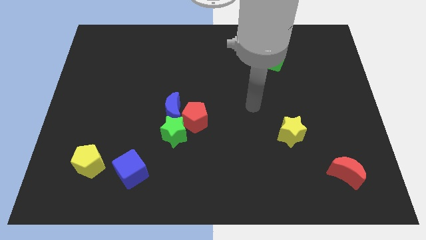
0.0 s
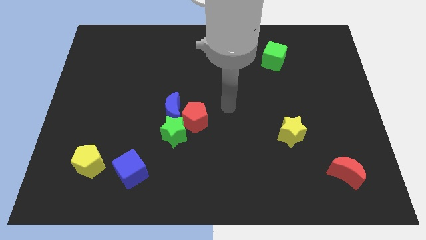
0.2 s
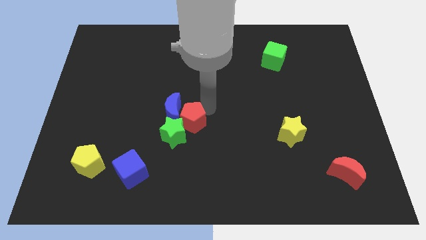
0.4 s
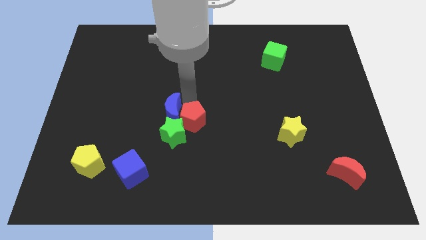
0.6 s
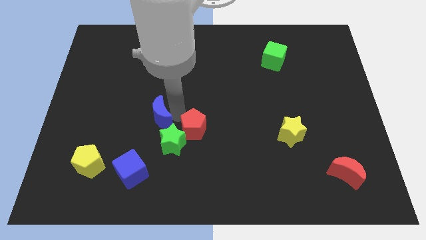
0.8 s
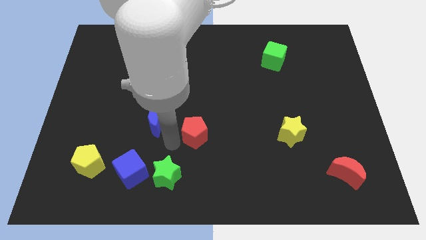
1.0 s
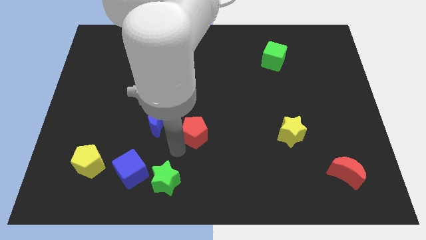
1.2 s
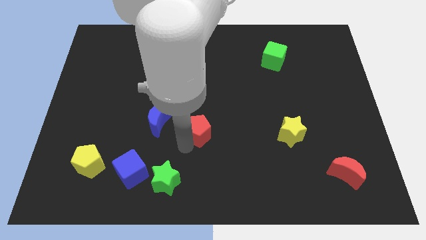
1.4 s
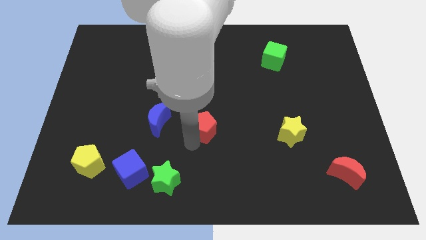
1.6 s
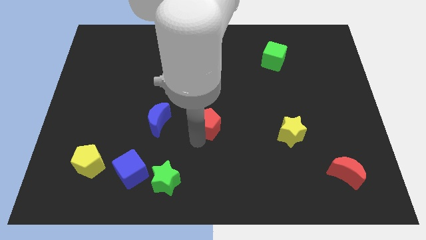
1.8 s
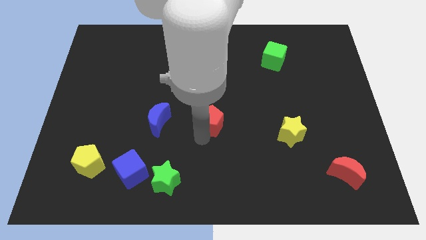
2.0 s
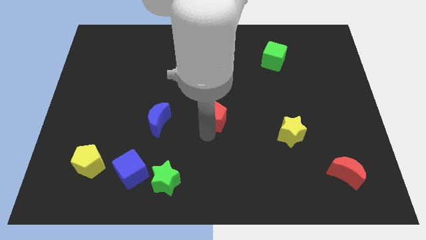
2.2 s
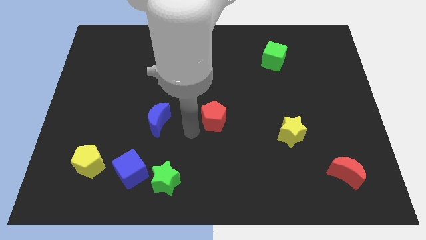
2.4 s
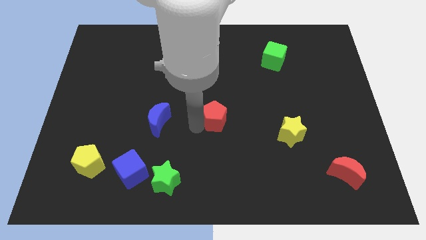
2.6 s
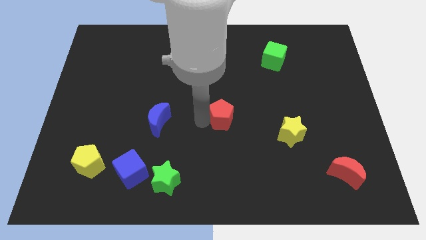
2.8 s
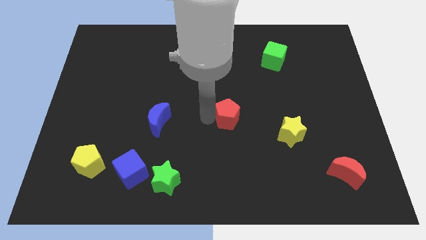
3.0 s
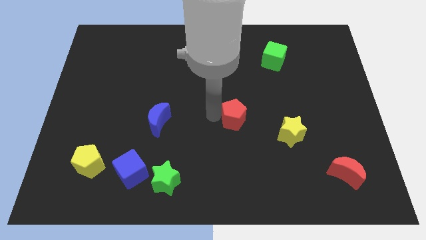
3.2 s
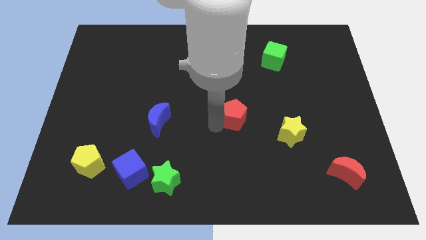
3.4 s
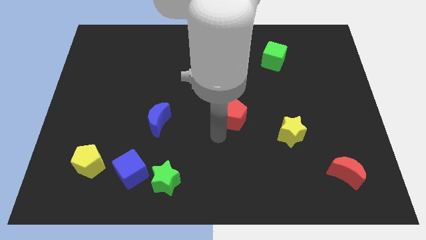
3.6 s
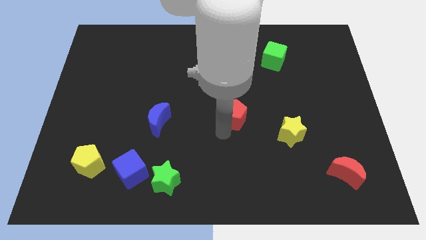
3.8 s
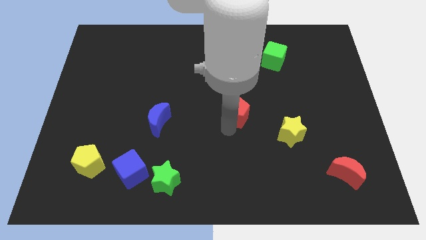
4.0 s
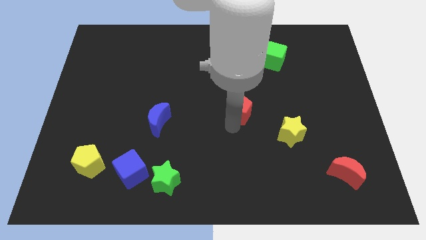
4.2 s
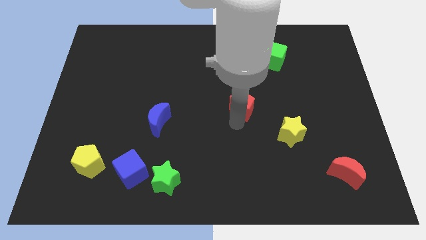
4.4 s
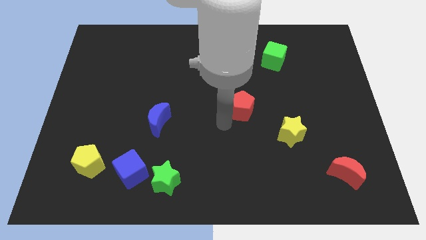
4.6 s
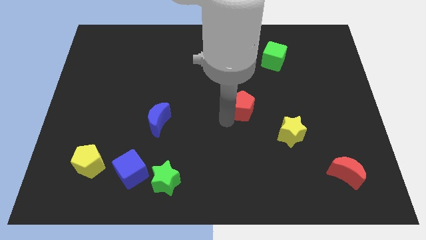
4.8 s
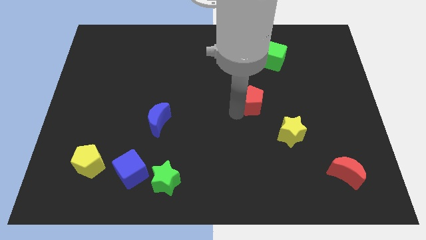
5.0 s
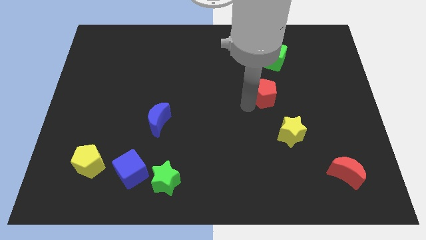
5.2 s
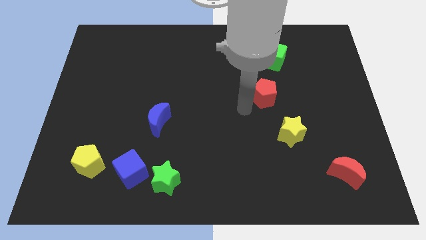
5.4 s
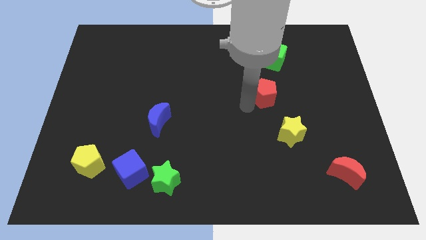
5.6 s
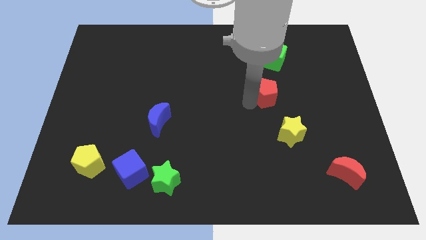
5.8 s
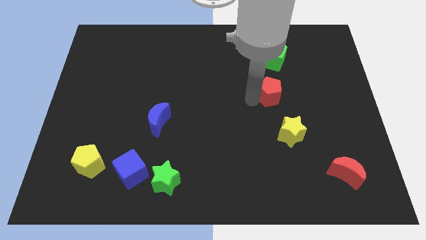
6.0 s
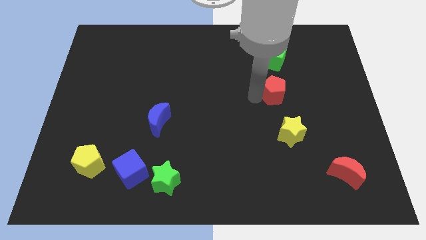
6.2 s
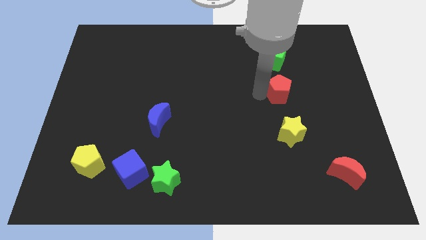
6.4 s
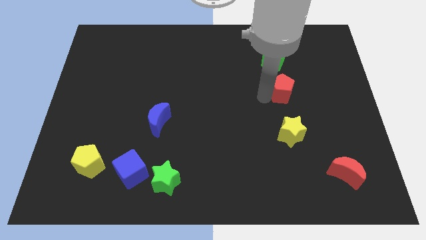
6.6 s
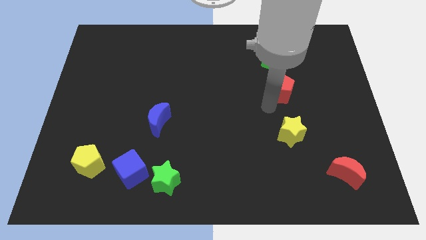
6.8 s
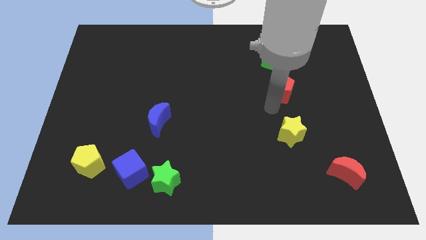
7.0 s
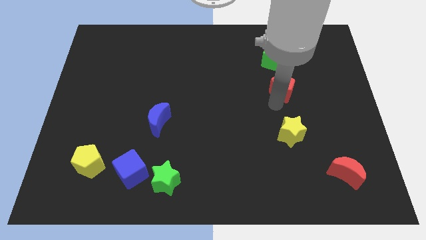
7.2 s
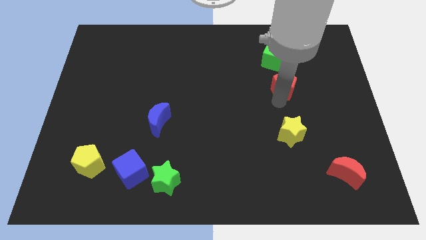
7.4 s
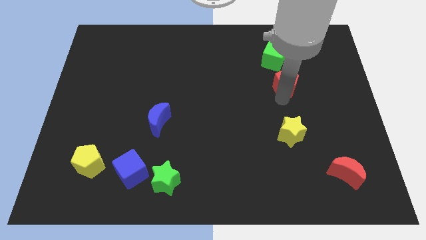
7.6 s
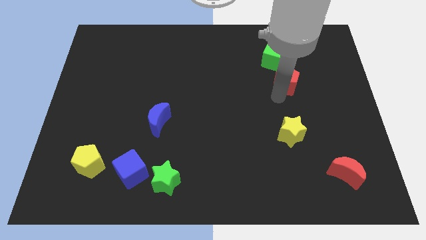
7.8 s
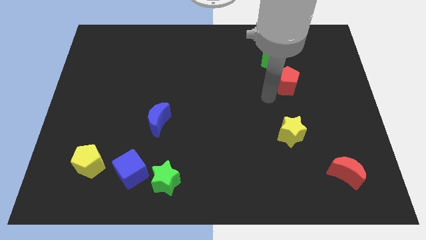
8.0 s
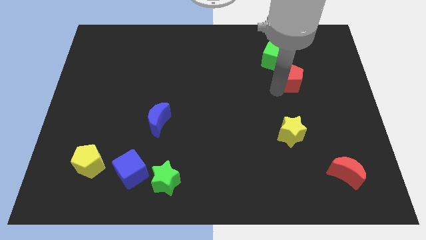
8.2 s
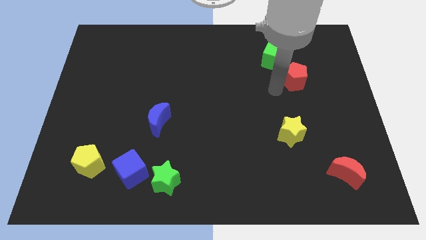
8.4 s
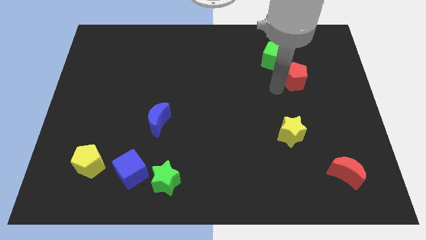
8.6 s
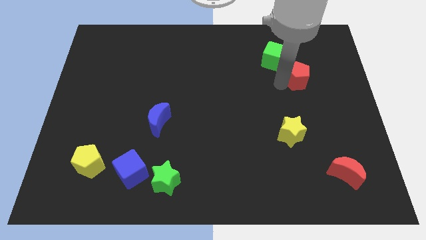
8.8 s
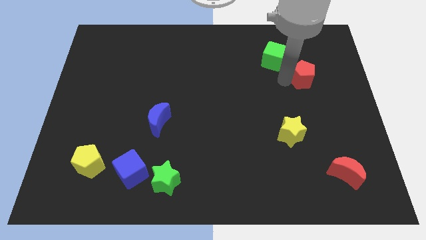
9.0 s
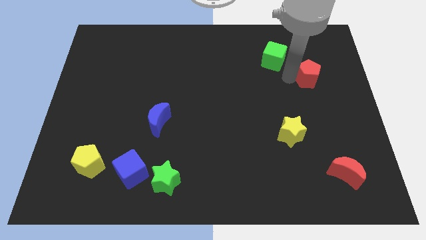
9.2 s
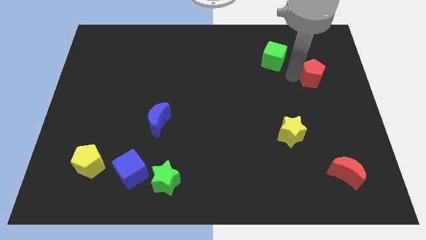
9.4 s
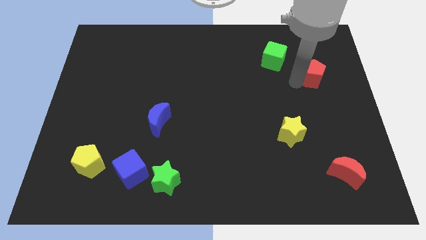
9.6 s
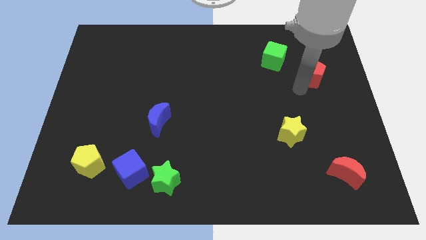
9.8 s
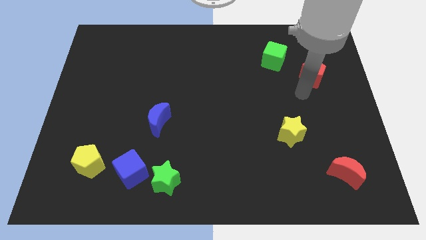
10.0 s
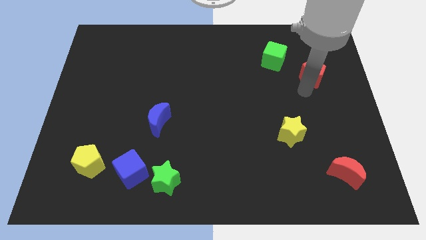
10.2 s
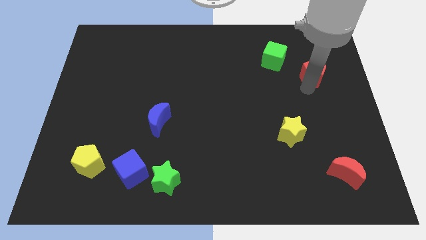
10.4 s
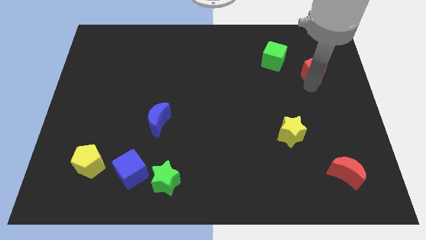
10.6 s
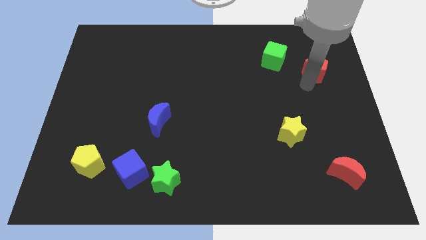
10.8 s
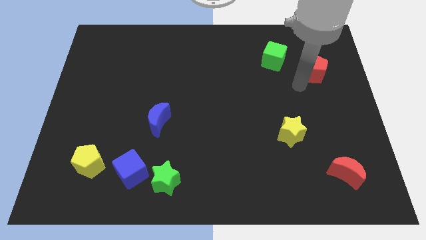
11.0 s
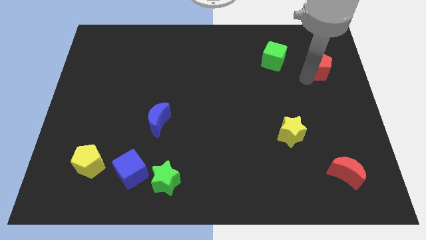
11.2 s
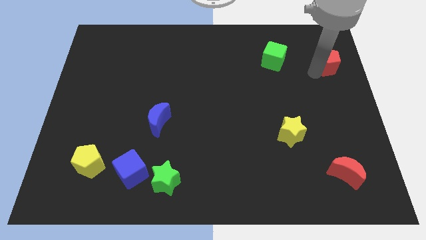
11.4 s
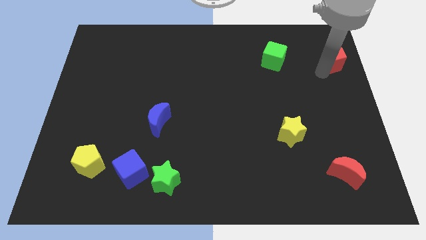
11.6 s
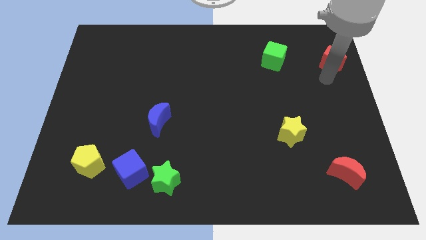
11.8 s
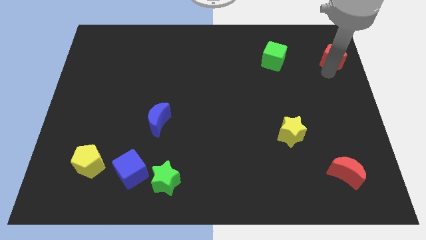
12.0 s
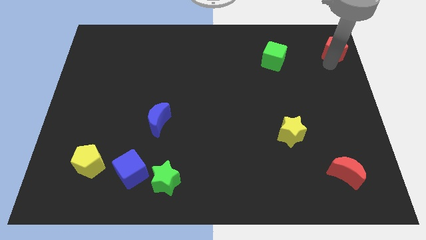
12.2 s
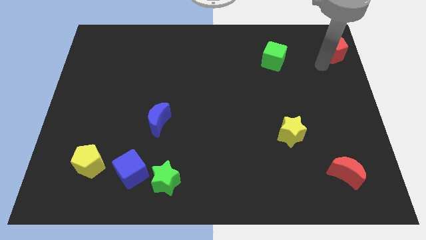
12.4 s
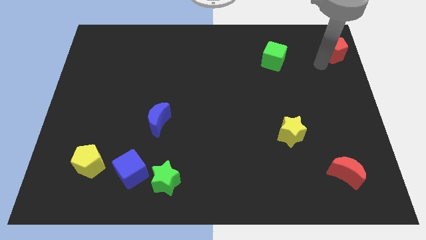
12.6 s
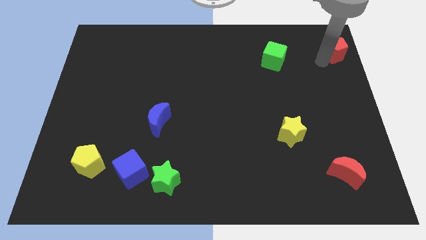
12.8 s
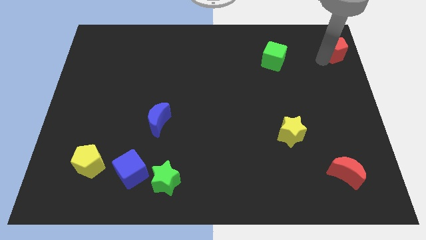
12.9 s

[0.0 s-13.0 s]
move the red pentagon to the top right
